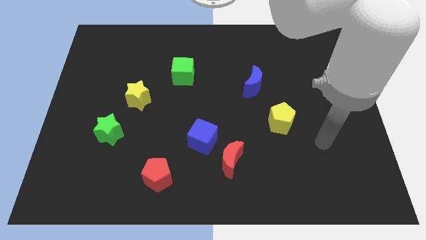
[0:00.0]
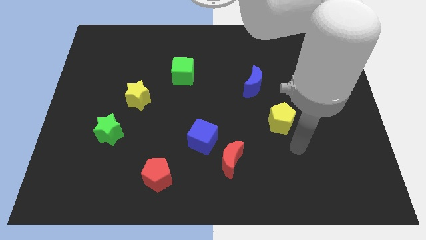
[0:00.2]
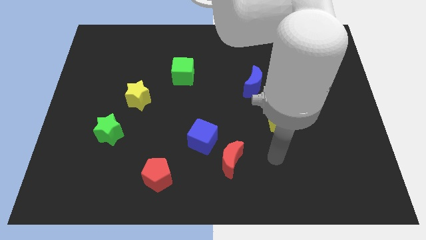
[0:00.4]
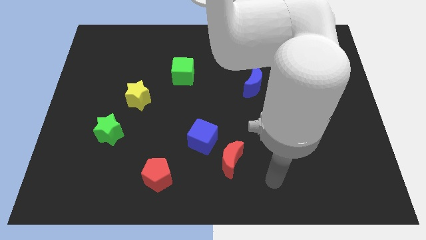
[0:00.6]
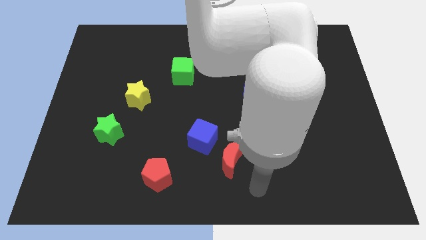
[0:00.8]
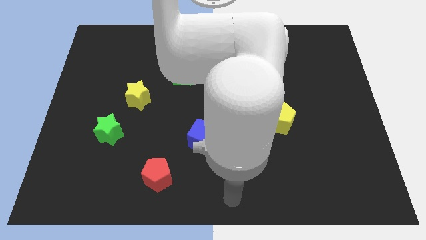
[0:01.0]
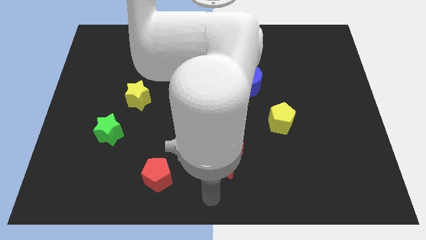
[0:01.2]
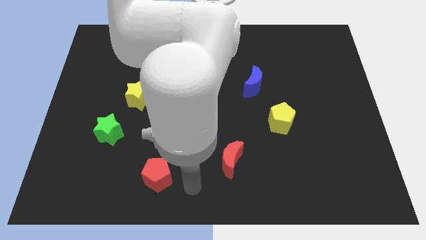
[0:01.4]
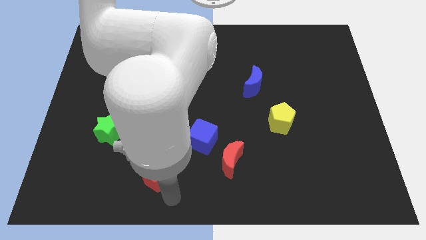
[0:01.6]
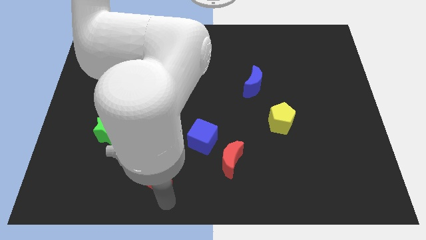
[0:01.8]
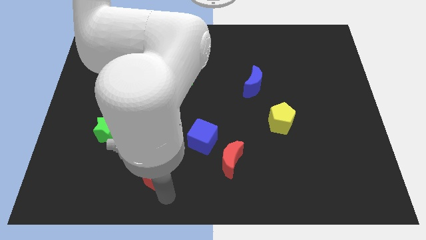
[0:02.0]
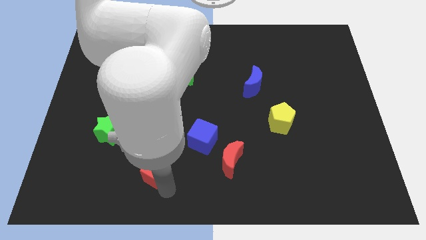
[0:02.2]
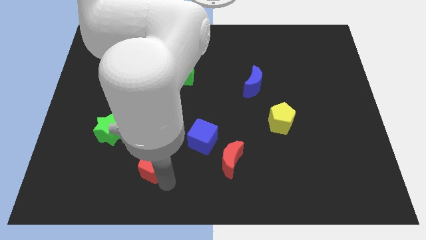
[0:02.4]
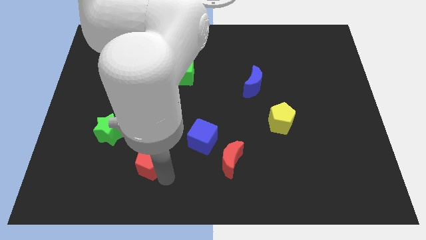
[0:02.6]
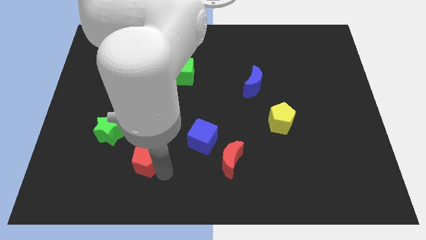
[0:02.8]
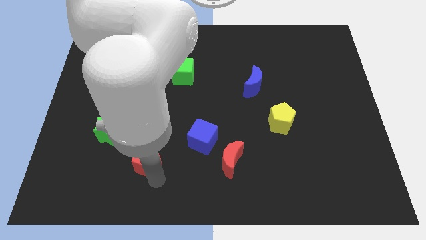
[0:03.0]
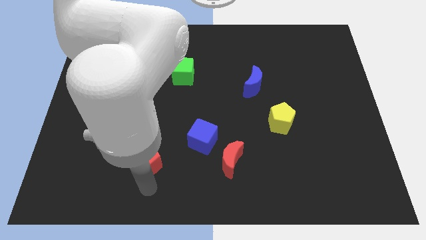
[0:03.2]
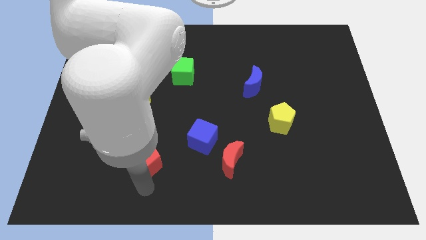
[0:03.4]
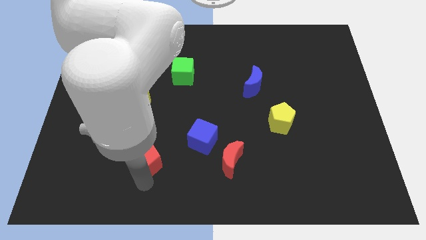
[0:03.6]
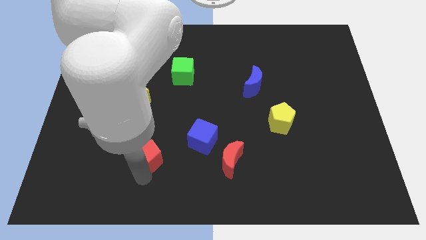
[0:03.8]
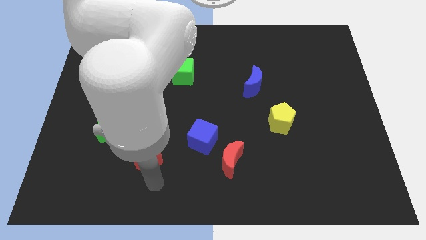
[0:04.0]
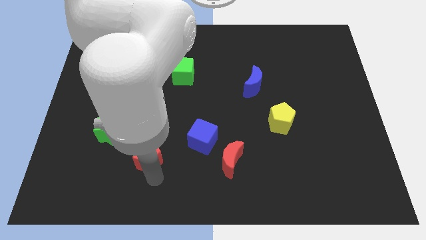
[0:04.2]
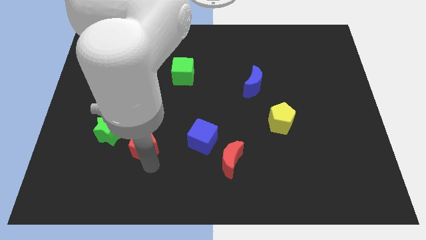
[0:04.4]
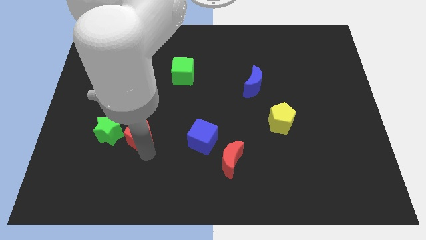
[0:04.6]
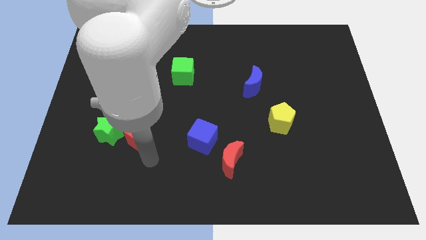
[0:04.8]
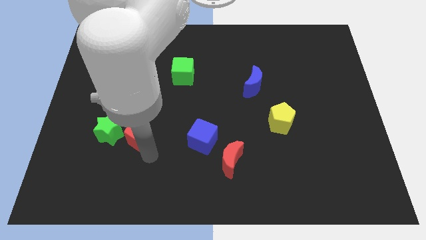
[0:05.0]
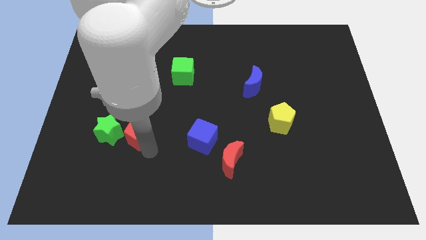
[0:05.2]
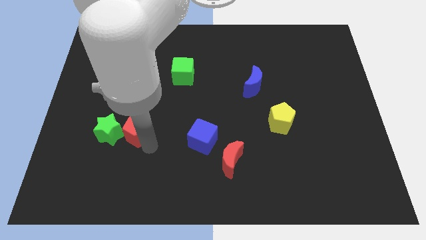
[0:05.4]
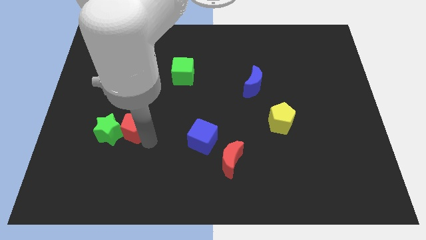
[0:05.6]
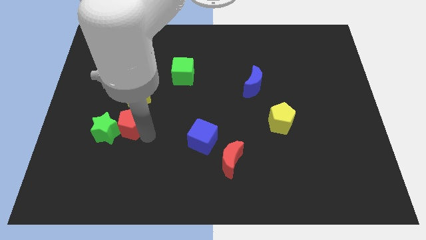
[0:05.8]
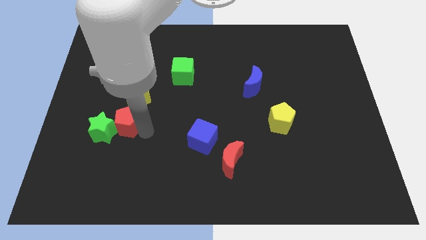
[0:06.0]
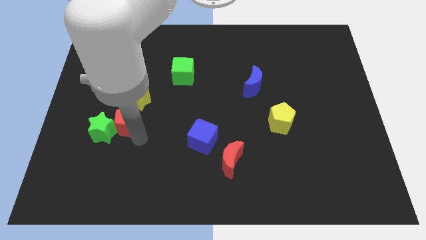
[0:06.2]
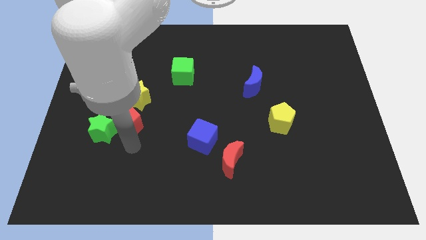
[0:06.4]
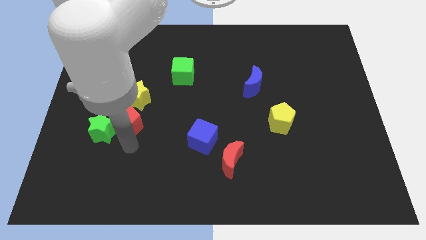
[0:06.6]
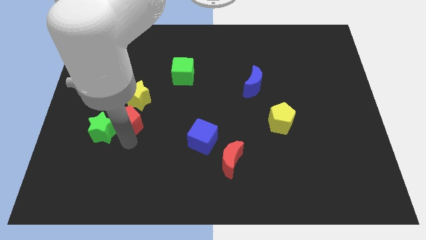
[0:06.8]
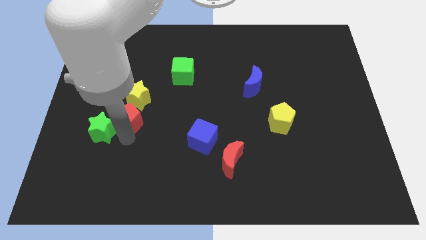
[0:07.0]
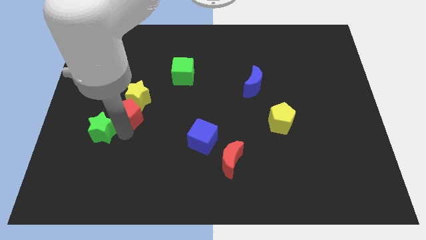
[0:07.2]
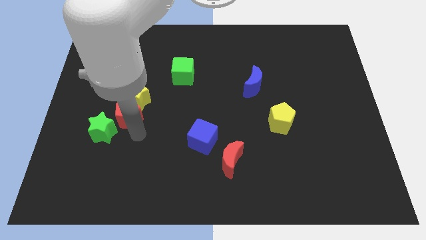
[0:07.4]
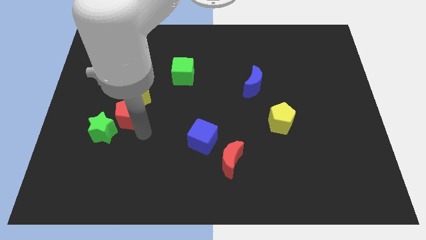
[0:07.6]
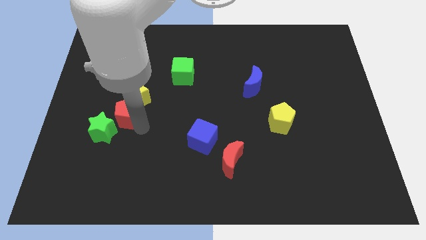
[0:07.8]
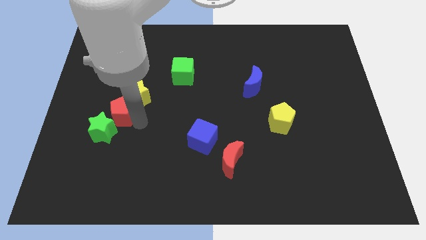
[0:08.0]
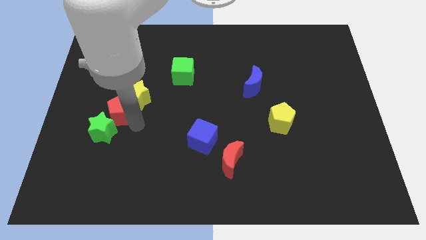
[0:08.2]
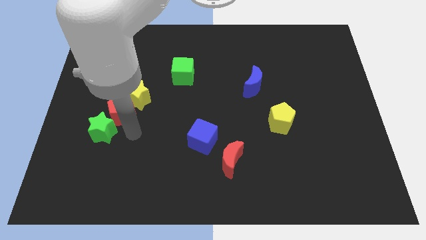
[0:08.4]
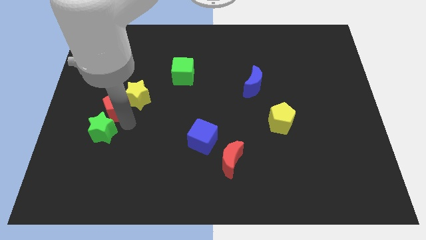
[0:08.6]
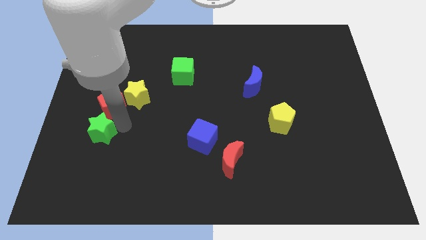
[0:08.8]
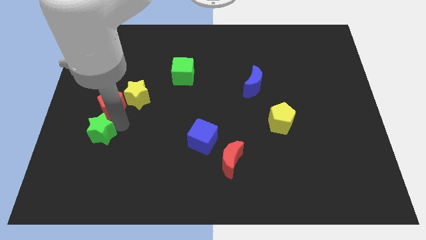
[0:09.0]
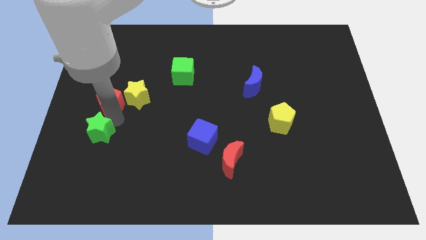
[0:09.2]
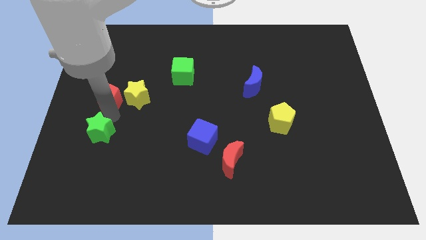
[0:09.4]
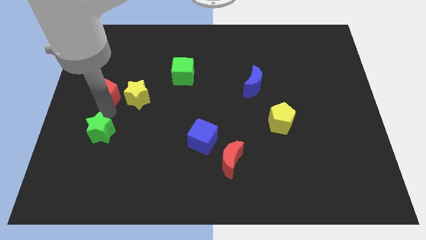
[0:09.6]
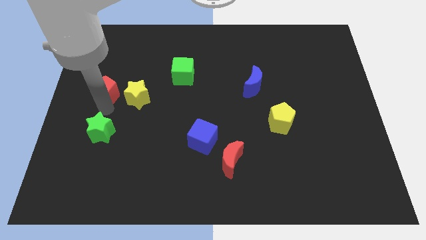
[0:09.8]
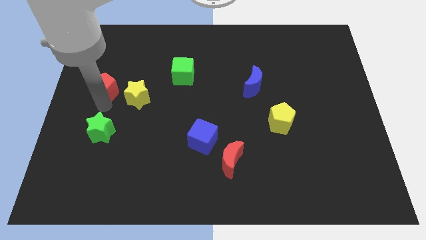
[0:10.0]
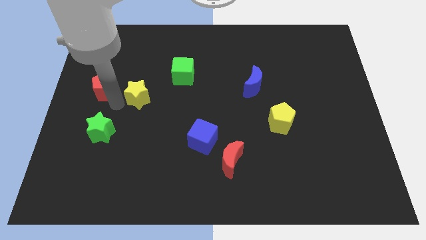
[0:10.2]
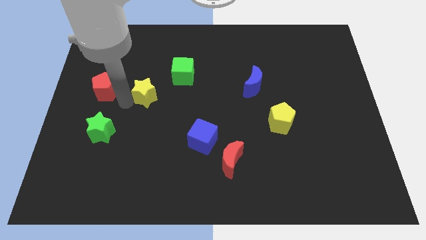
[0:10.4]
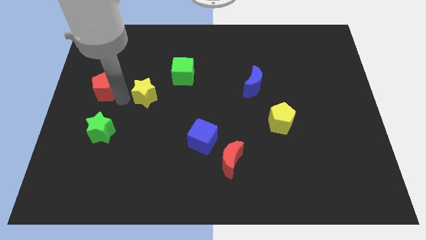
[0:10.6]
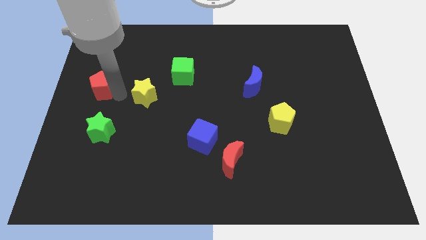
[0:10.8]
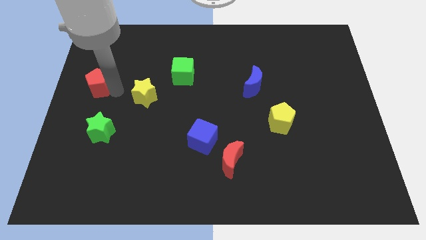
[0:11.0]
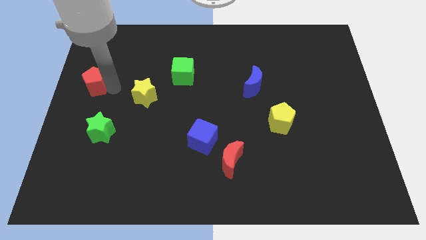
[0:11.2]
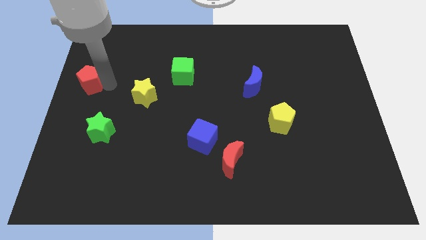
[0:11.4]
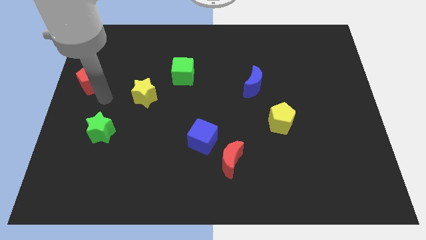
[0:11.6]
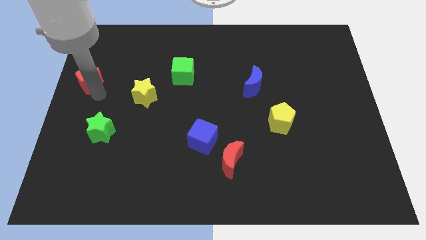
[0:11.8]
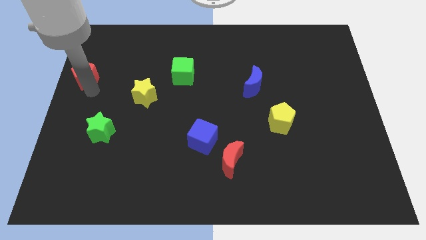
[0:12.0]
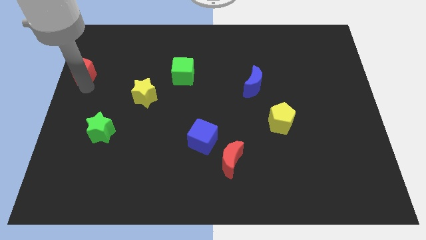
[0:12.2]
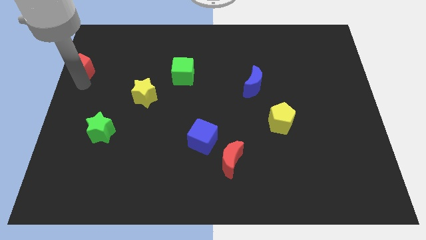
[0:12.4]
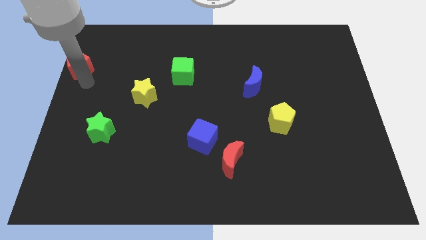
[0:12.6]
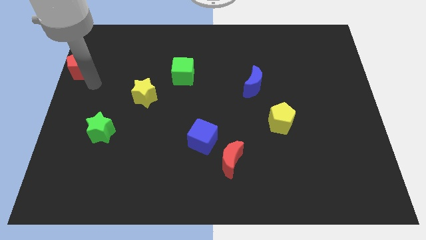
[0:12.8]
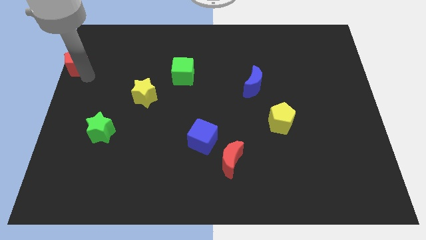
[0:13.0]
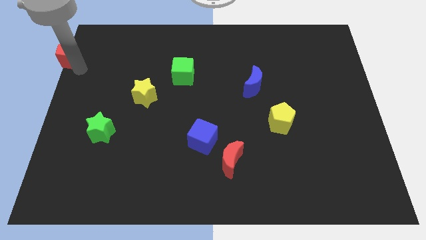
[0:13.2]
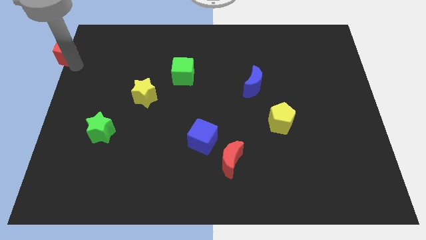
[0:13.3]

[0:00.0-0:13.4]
push the red pentagon to the top left corner

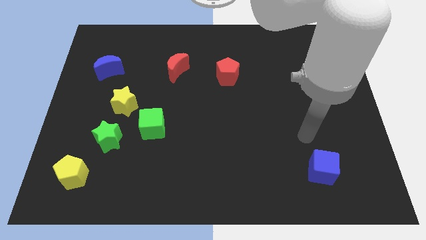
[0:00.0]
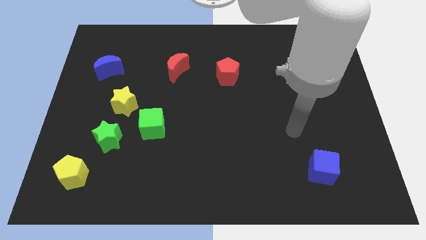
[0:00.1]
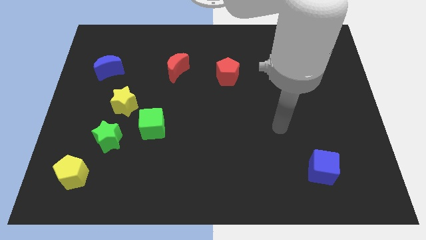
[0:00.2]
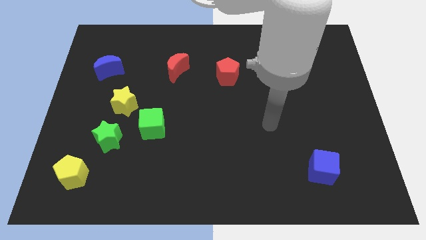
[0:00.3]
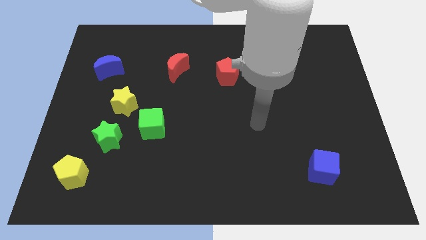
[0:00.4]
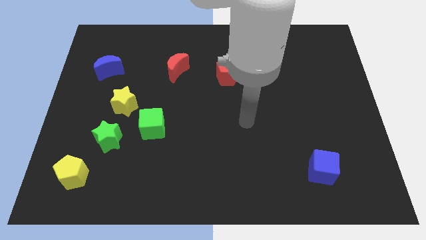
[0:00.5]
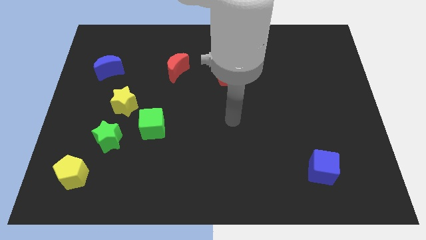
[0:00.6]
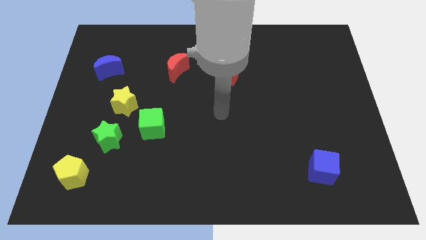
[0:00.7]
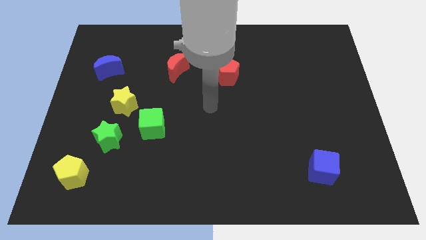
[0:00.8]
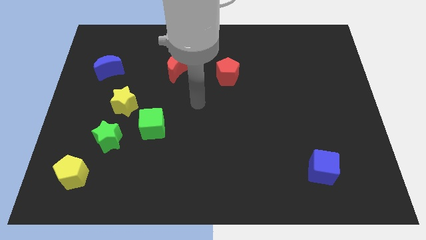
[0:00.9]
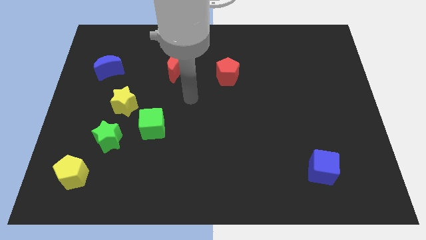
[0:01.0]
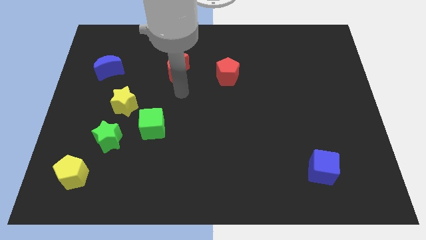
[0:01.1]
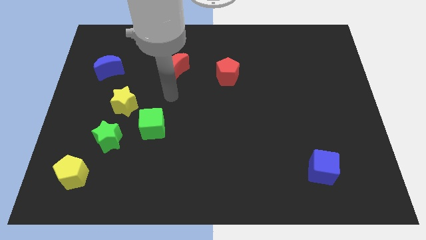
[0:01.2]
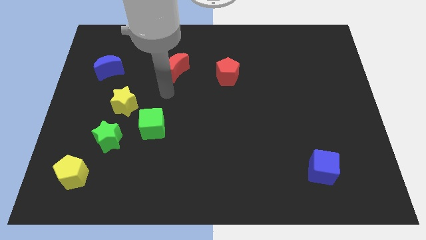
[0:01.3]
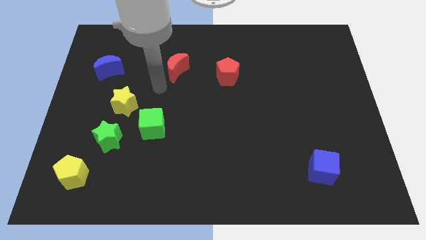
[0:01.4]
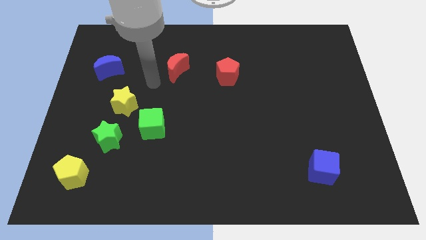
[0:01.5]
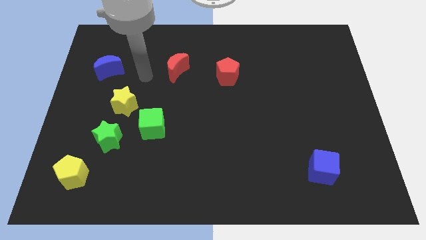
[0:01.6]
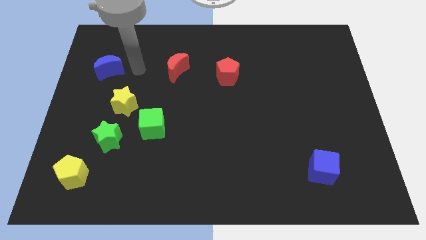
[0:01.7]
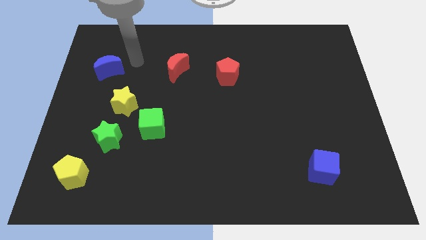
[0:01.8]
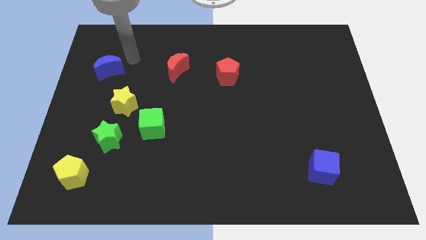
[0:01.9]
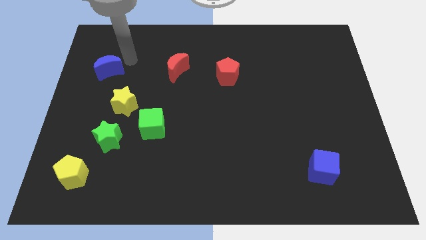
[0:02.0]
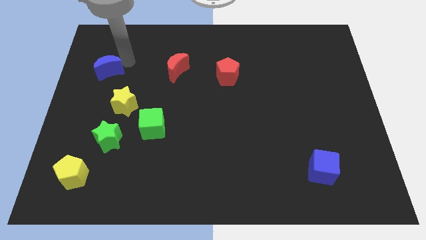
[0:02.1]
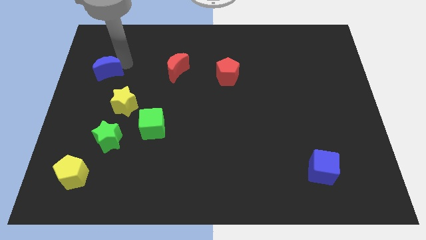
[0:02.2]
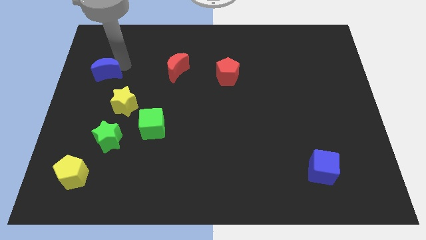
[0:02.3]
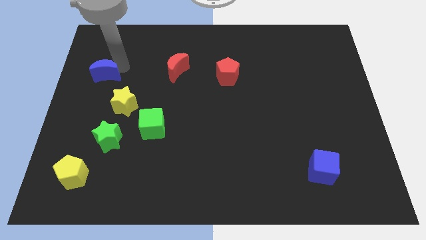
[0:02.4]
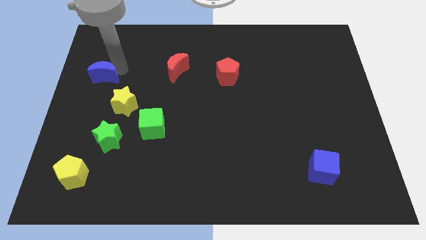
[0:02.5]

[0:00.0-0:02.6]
put the blue moon to the left side
